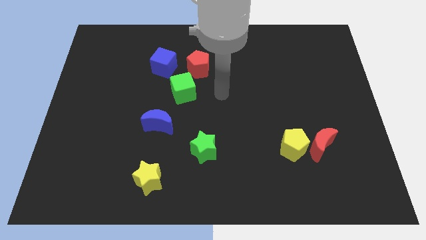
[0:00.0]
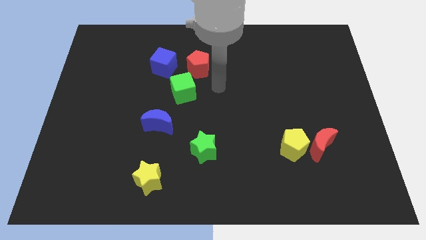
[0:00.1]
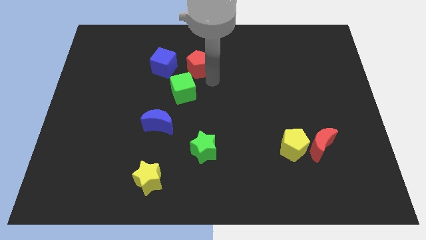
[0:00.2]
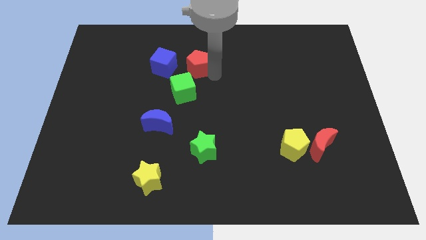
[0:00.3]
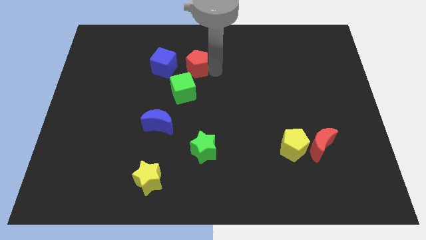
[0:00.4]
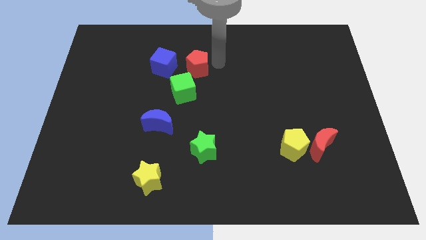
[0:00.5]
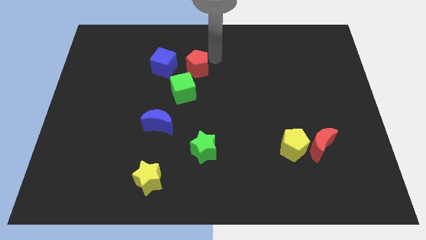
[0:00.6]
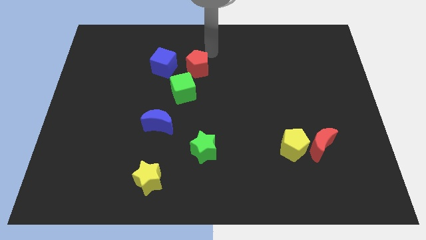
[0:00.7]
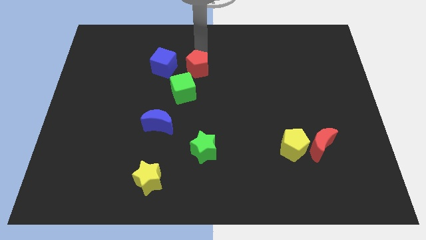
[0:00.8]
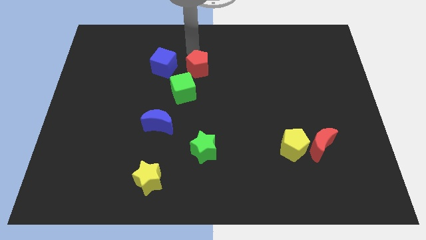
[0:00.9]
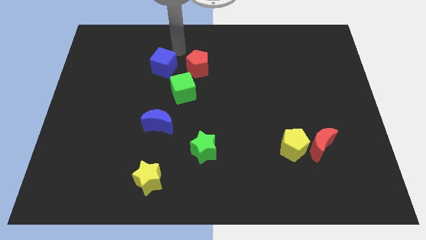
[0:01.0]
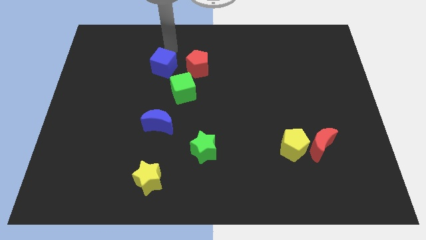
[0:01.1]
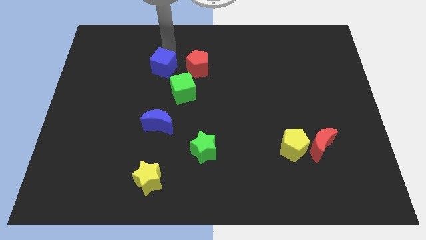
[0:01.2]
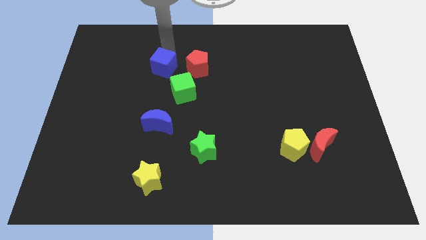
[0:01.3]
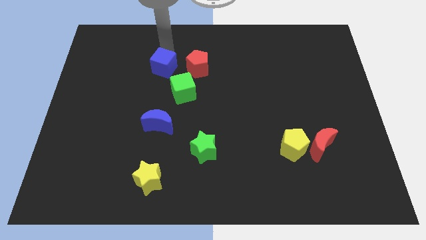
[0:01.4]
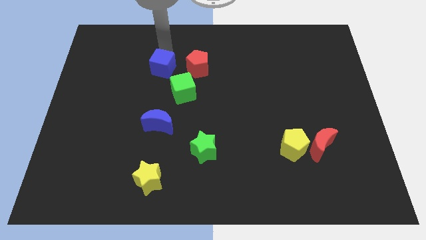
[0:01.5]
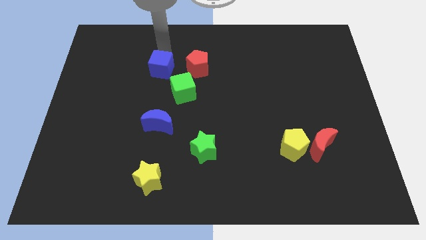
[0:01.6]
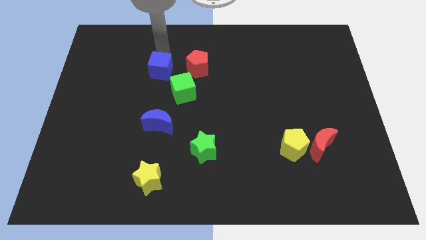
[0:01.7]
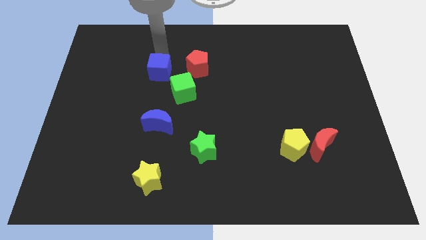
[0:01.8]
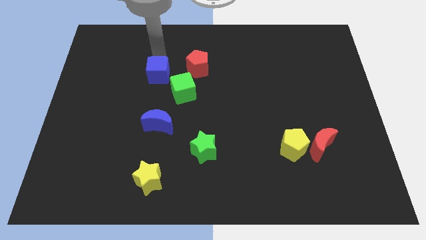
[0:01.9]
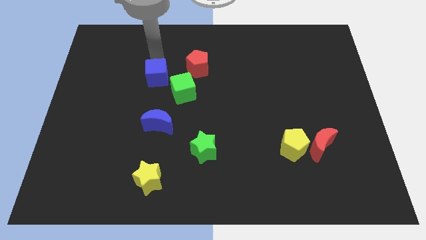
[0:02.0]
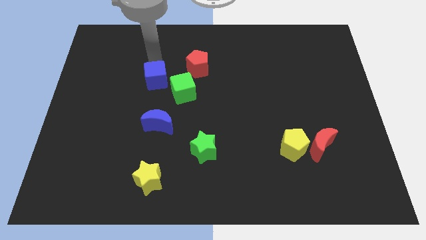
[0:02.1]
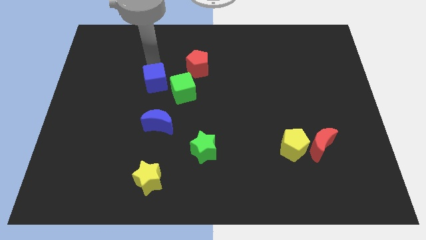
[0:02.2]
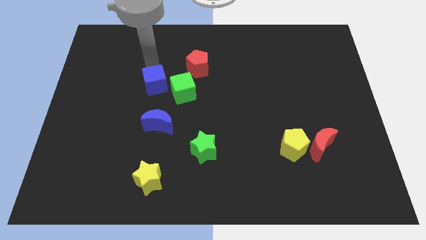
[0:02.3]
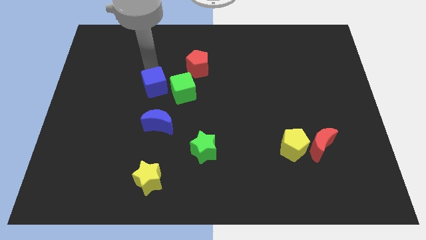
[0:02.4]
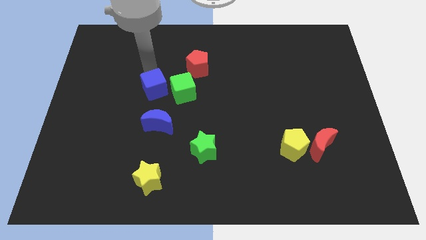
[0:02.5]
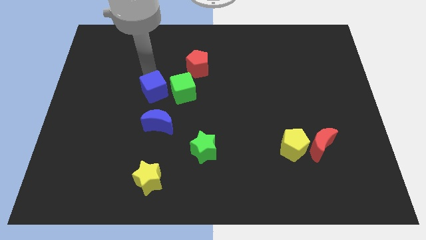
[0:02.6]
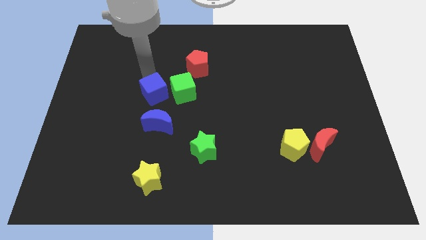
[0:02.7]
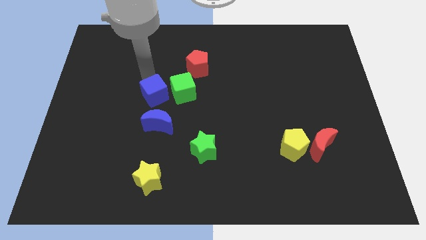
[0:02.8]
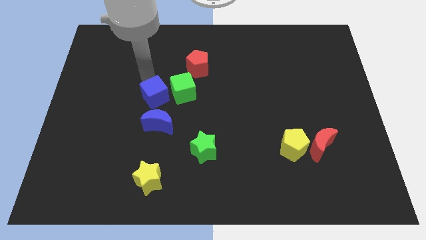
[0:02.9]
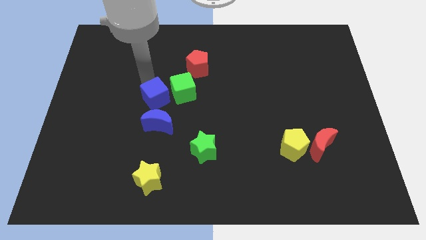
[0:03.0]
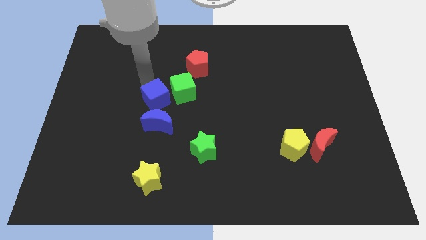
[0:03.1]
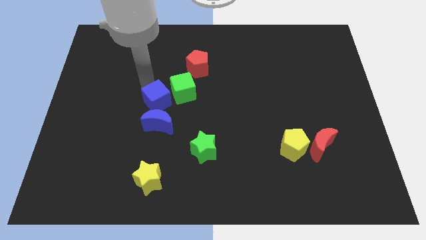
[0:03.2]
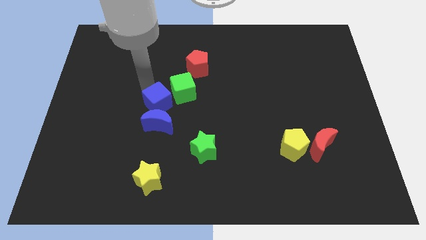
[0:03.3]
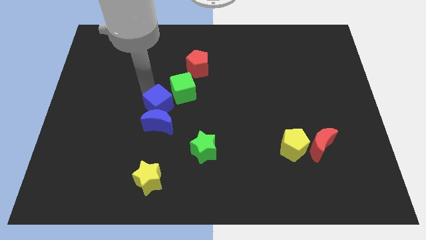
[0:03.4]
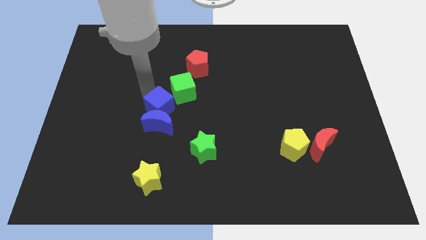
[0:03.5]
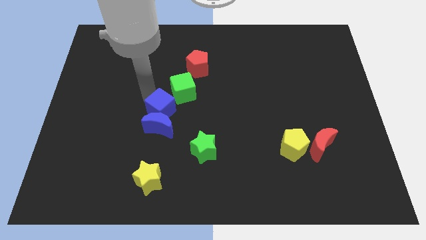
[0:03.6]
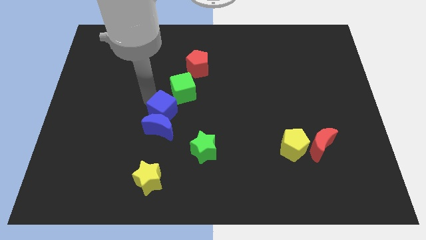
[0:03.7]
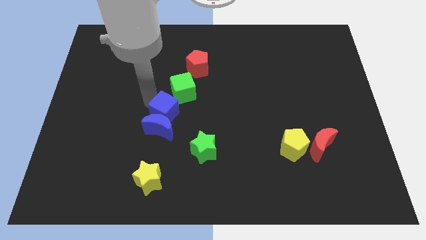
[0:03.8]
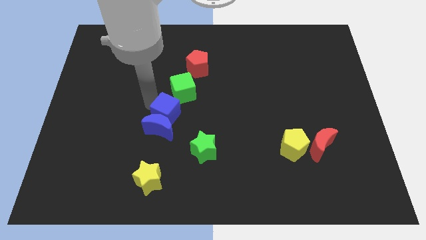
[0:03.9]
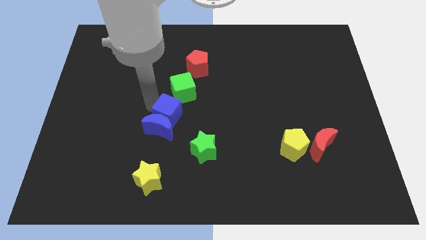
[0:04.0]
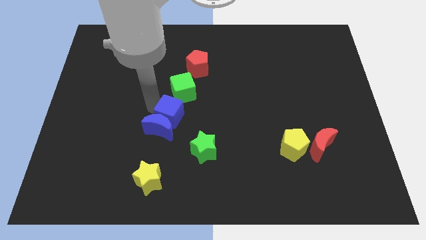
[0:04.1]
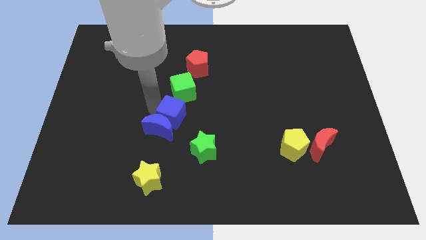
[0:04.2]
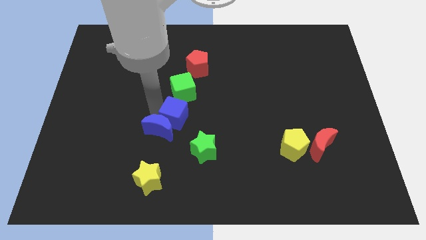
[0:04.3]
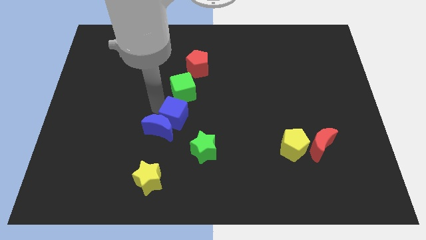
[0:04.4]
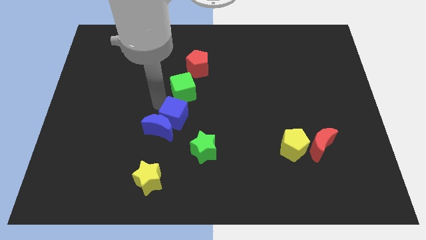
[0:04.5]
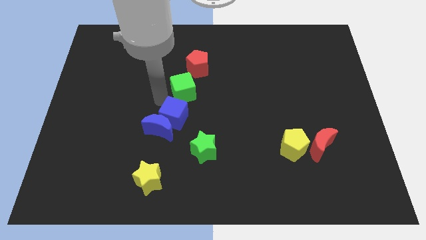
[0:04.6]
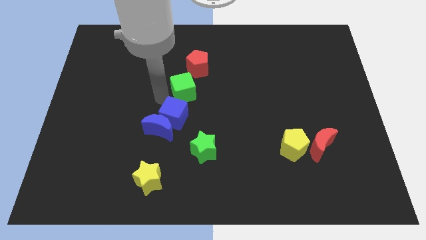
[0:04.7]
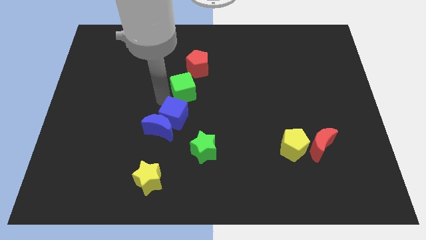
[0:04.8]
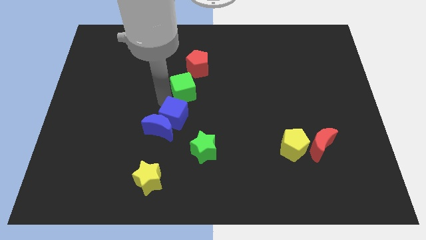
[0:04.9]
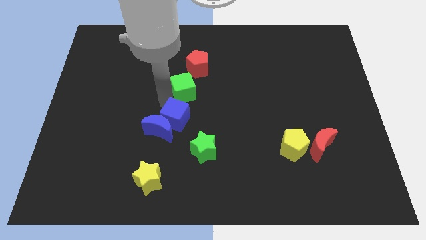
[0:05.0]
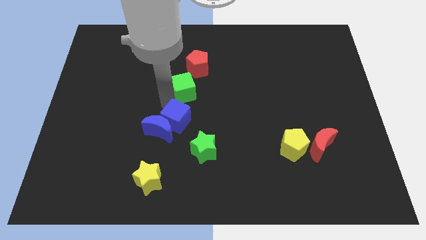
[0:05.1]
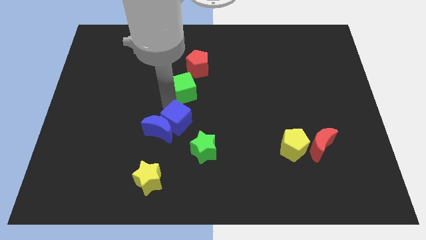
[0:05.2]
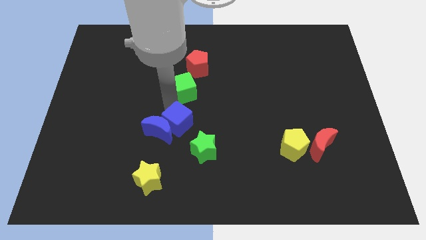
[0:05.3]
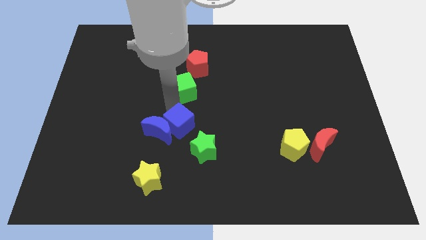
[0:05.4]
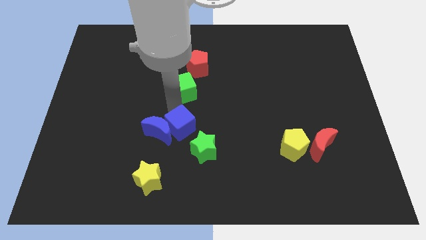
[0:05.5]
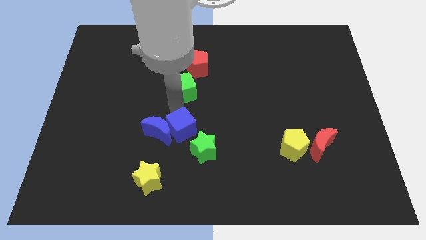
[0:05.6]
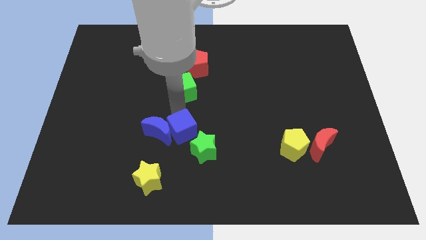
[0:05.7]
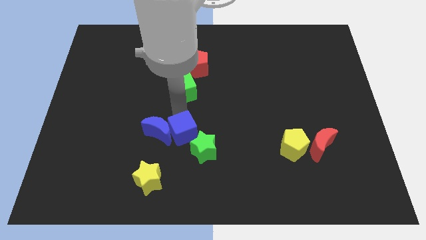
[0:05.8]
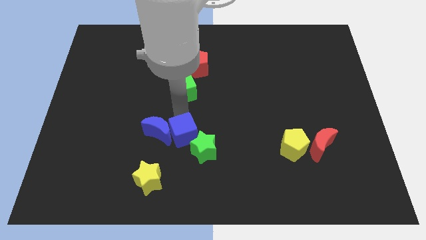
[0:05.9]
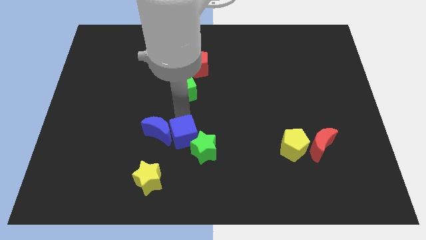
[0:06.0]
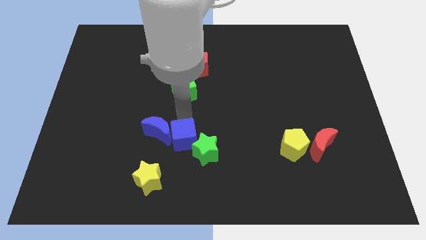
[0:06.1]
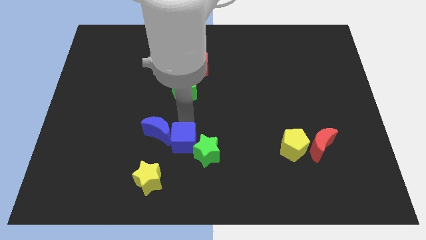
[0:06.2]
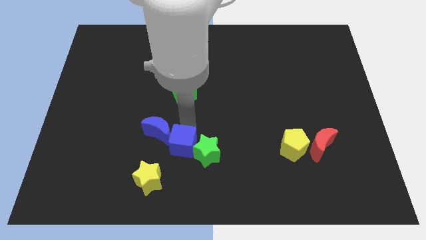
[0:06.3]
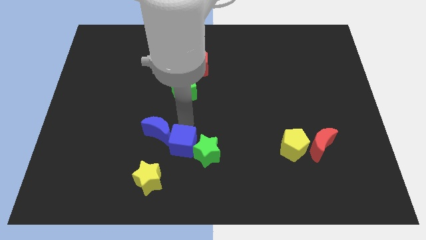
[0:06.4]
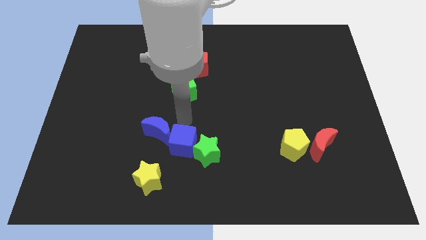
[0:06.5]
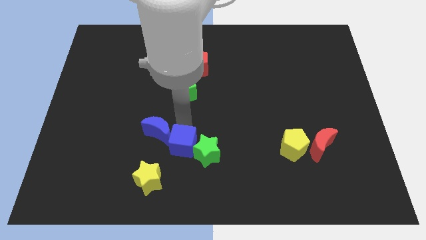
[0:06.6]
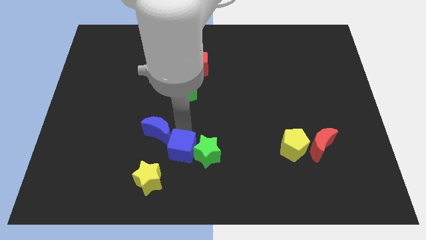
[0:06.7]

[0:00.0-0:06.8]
slide the blue cube diagonally down and to the left of the green star
